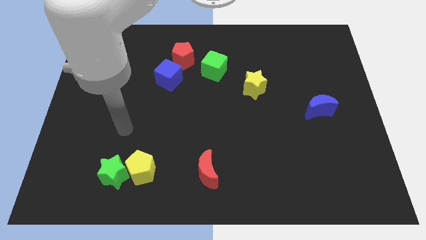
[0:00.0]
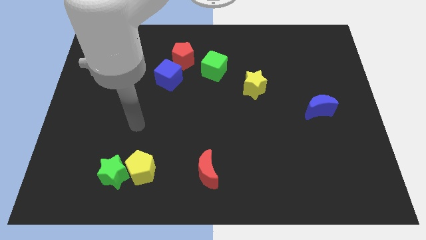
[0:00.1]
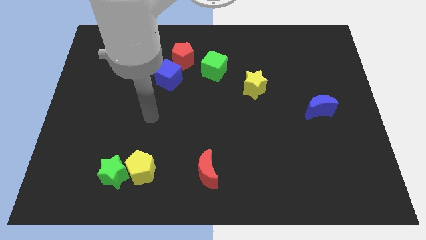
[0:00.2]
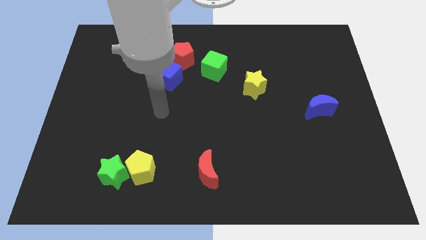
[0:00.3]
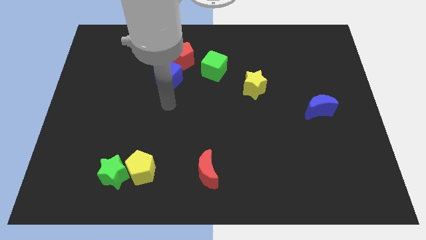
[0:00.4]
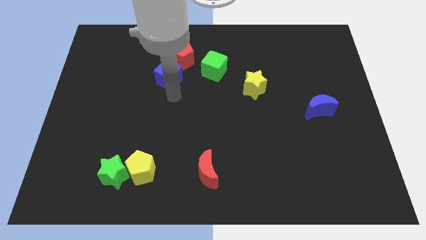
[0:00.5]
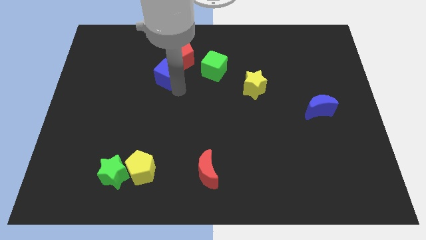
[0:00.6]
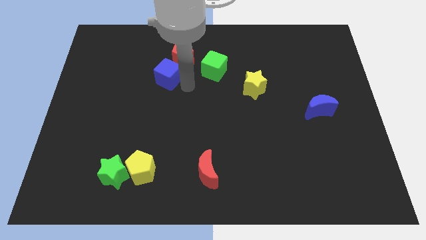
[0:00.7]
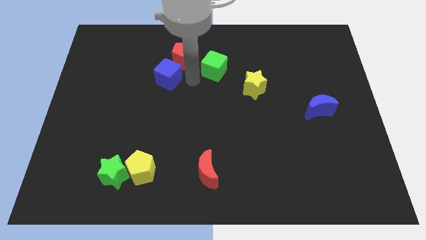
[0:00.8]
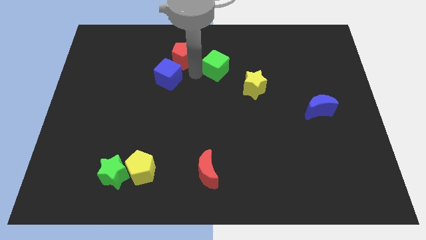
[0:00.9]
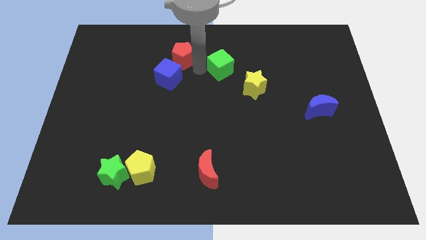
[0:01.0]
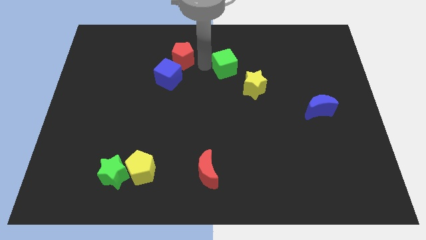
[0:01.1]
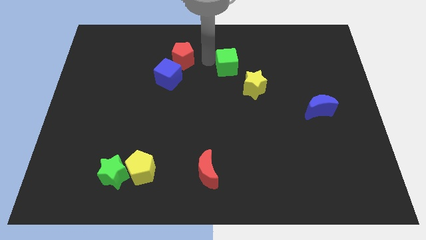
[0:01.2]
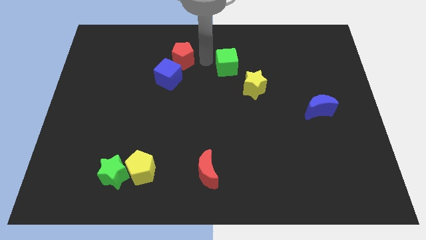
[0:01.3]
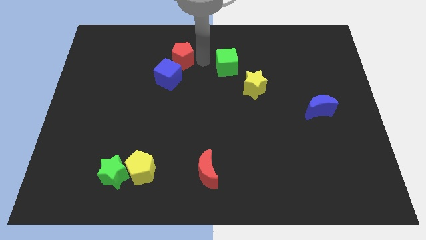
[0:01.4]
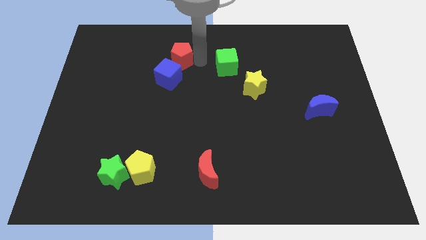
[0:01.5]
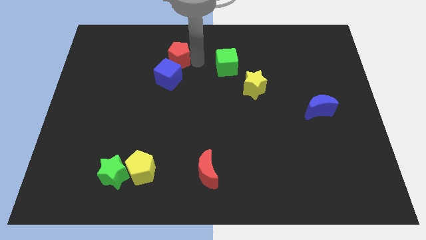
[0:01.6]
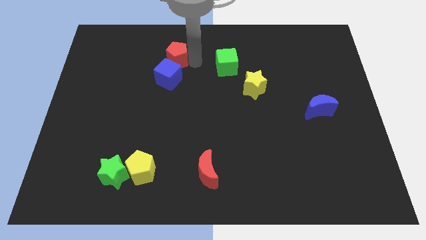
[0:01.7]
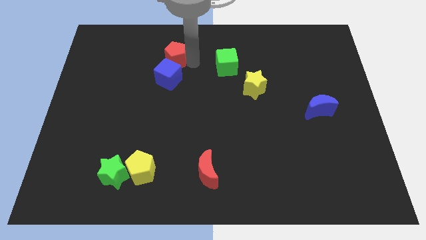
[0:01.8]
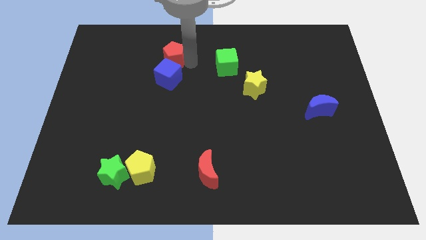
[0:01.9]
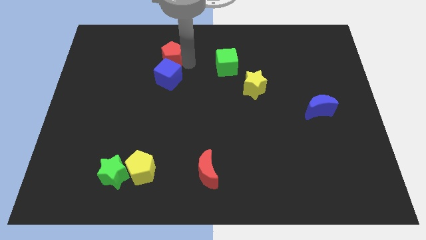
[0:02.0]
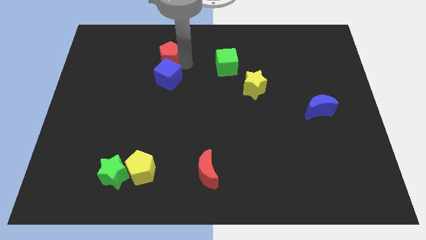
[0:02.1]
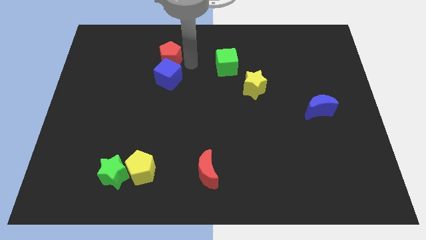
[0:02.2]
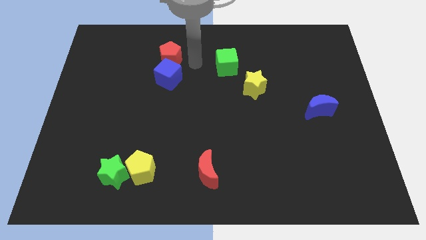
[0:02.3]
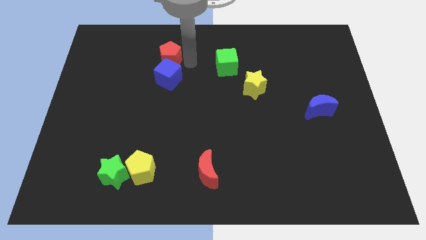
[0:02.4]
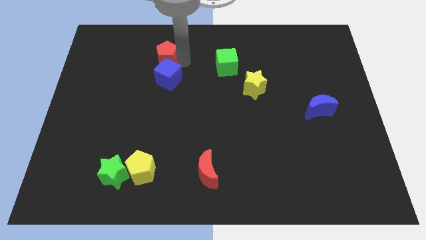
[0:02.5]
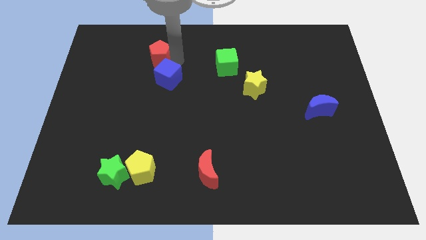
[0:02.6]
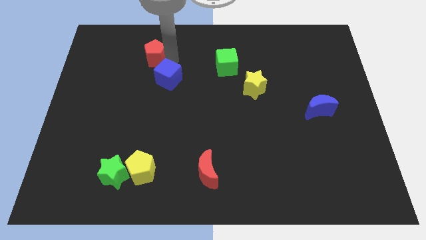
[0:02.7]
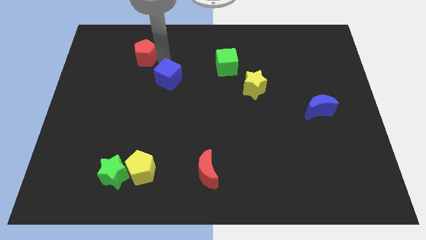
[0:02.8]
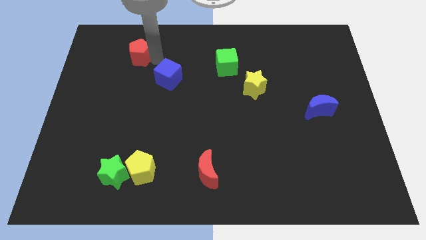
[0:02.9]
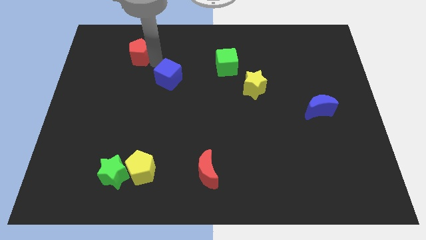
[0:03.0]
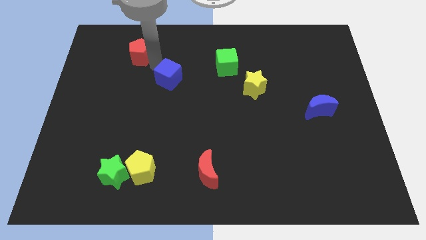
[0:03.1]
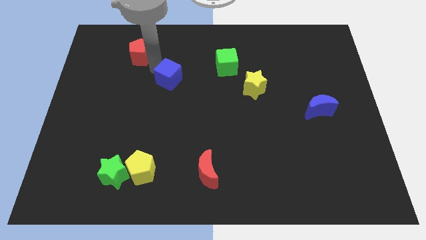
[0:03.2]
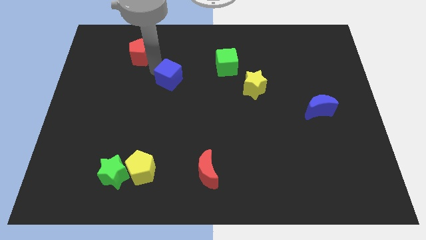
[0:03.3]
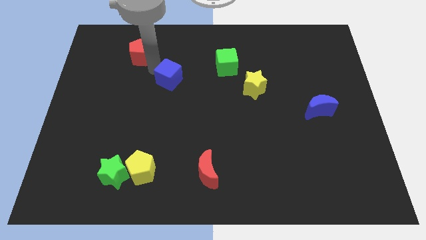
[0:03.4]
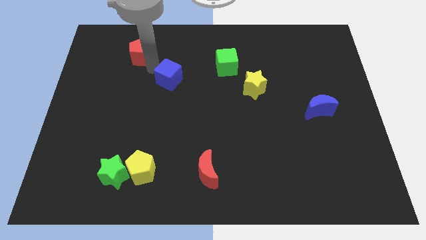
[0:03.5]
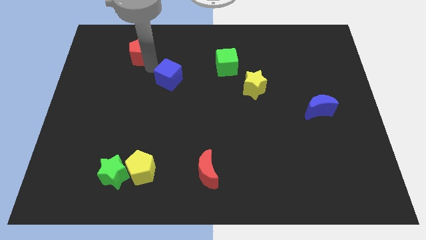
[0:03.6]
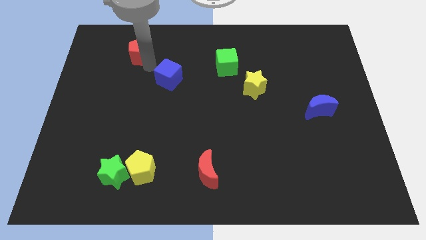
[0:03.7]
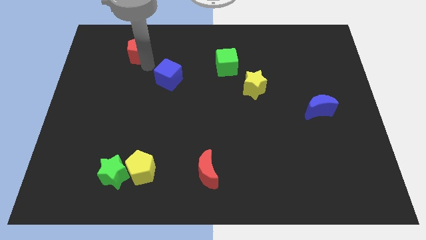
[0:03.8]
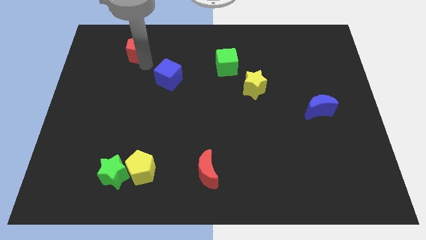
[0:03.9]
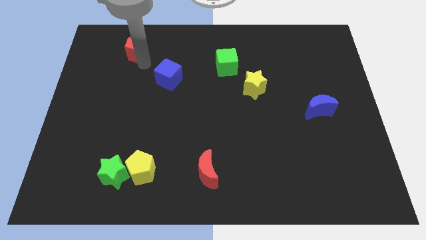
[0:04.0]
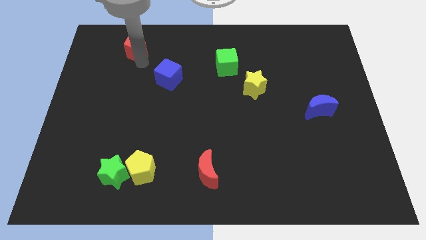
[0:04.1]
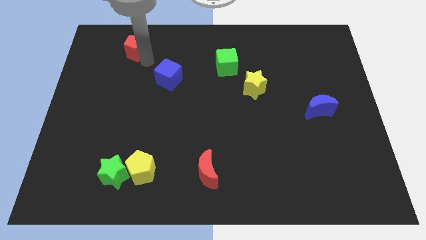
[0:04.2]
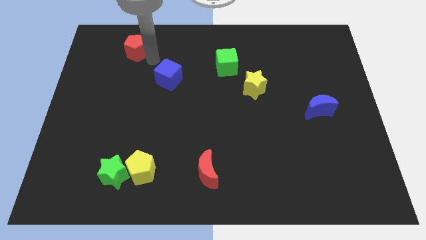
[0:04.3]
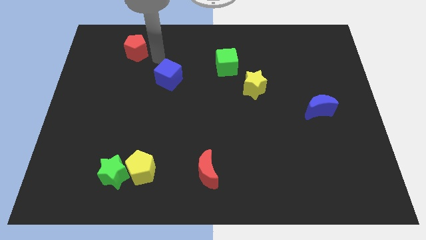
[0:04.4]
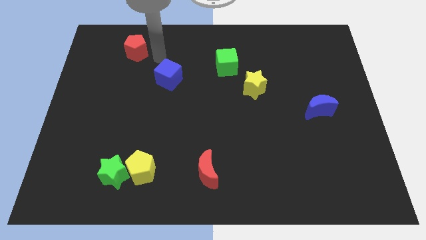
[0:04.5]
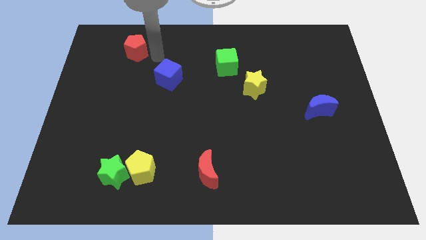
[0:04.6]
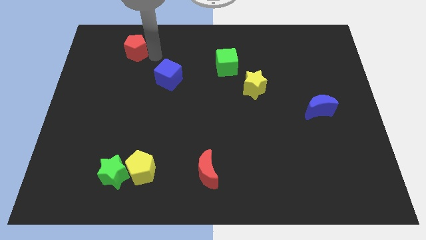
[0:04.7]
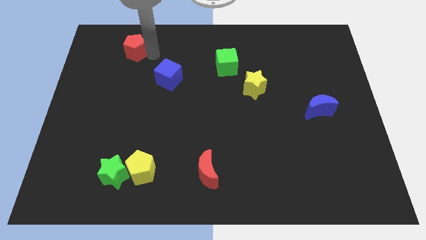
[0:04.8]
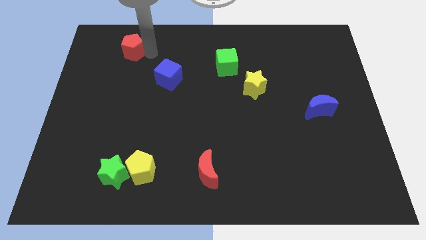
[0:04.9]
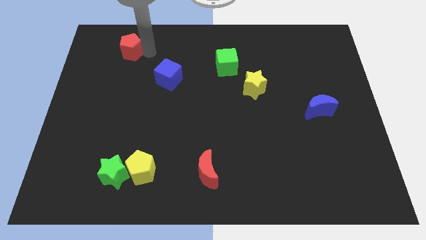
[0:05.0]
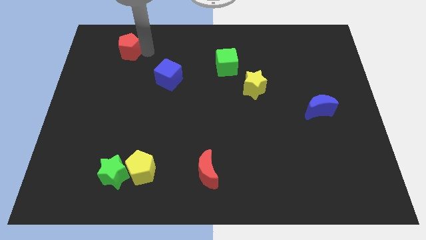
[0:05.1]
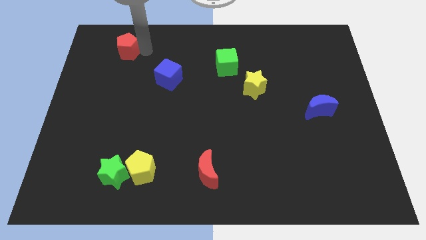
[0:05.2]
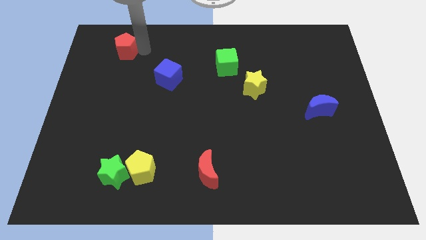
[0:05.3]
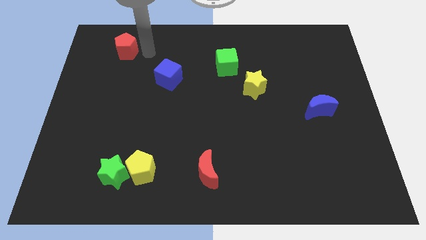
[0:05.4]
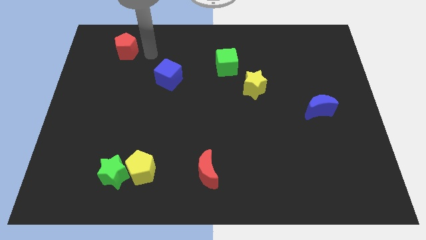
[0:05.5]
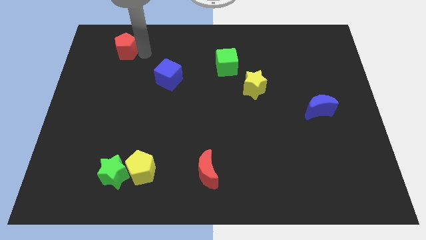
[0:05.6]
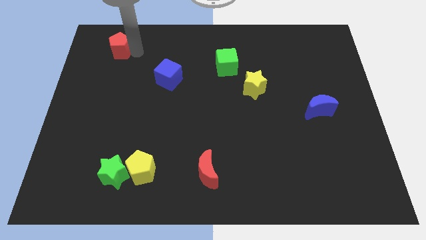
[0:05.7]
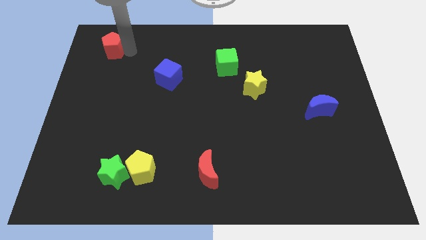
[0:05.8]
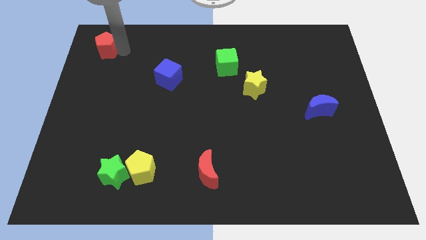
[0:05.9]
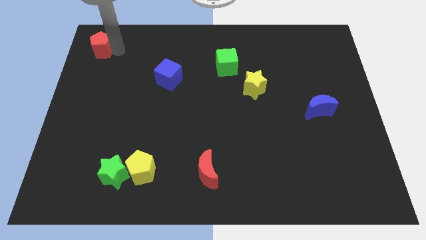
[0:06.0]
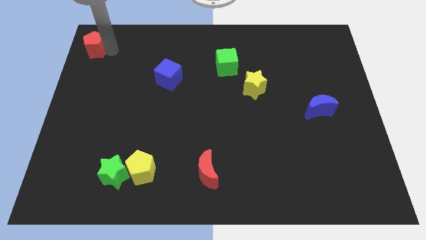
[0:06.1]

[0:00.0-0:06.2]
move the red pentagon to the top left of the board
